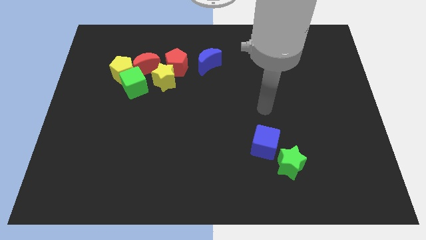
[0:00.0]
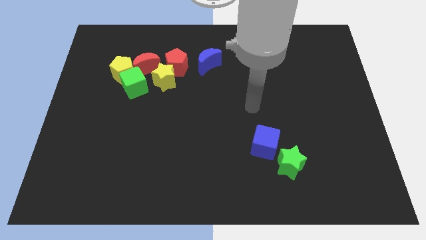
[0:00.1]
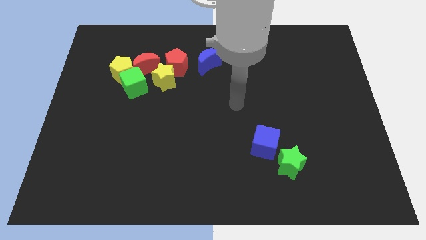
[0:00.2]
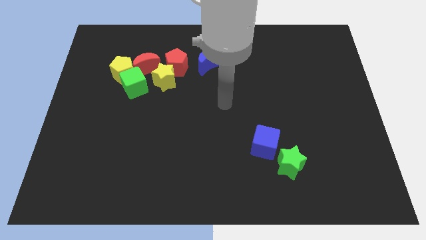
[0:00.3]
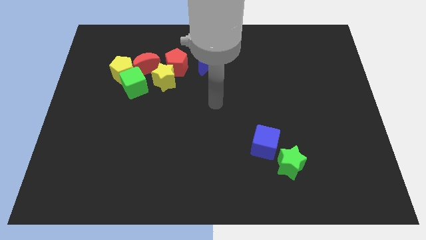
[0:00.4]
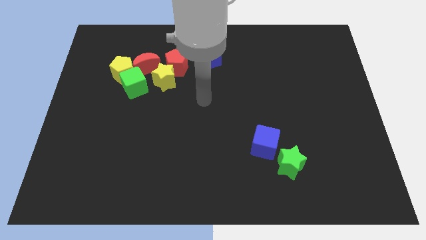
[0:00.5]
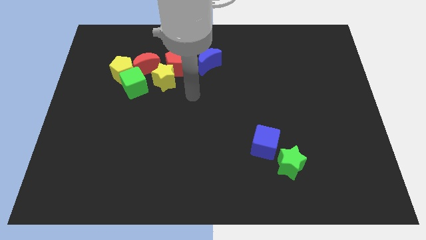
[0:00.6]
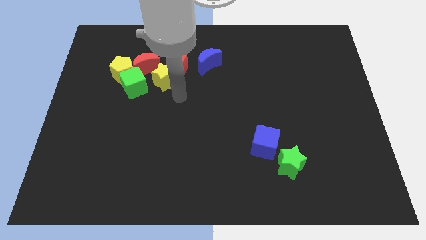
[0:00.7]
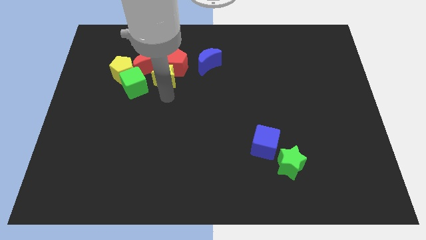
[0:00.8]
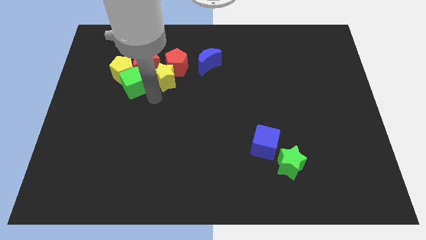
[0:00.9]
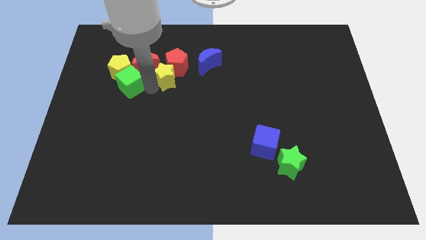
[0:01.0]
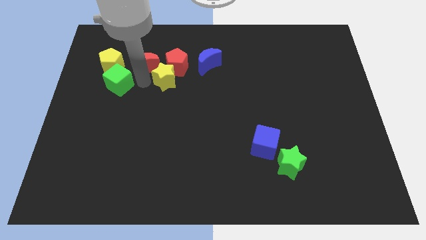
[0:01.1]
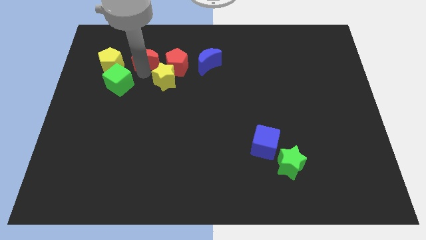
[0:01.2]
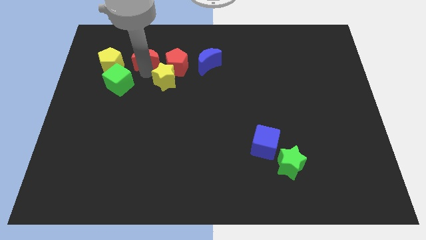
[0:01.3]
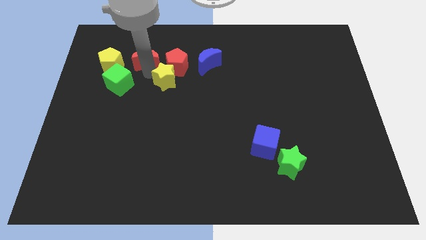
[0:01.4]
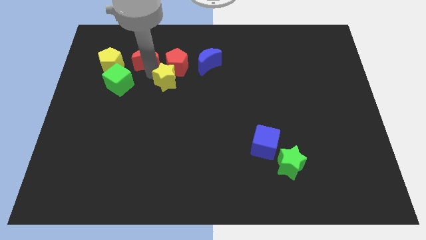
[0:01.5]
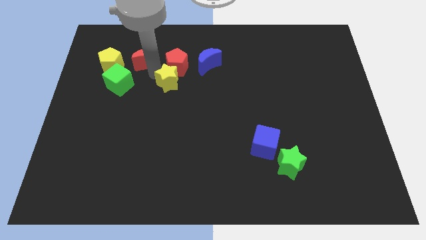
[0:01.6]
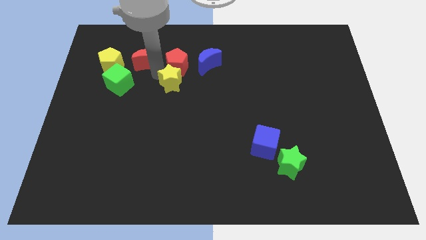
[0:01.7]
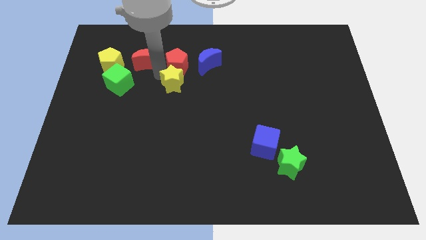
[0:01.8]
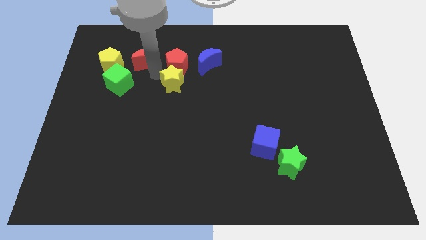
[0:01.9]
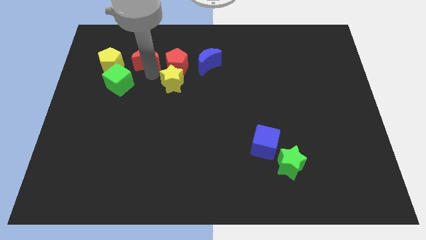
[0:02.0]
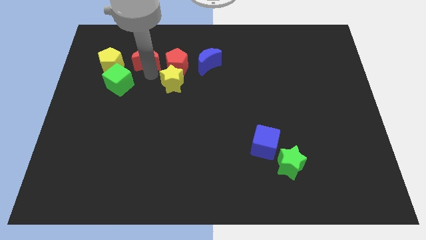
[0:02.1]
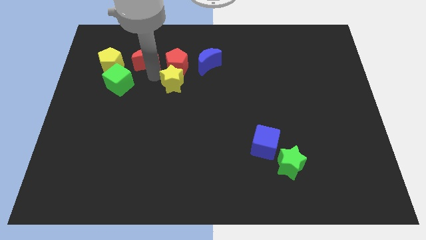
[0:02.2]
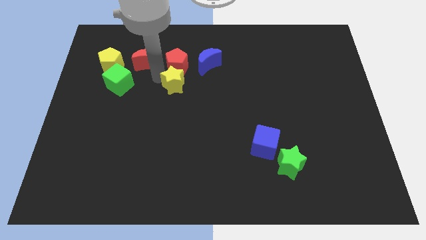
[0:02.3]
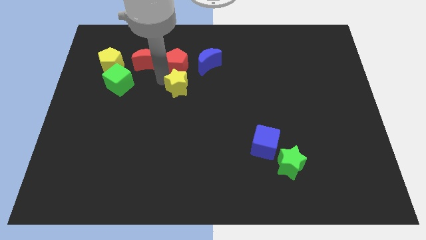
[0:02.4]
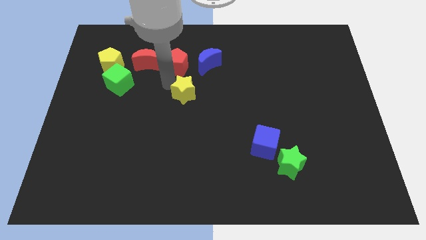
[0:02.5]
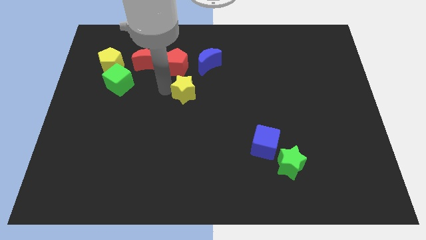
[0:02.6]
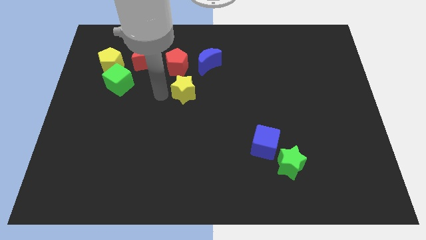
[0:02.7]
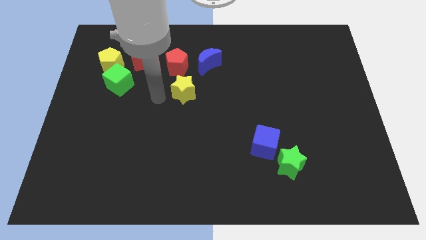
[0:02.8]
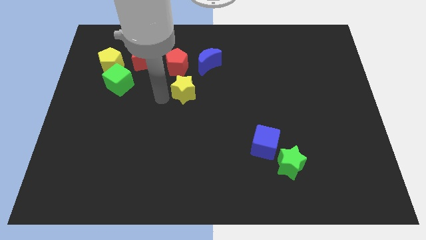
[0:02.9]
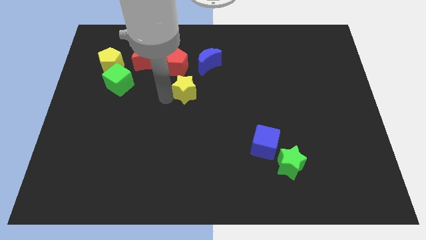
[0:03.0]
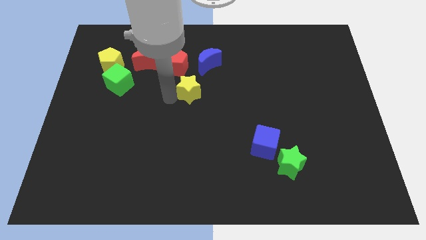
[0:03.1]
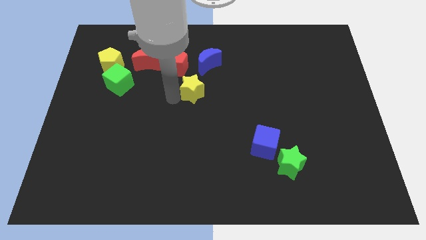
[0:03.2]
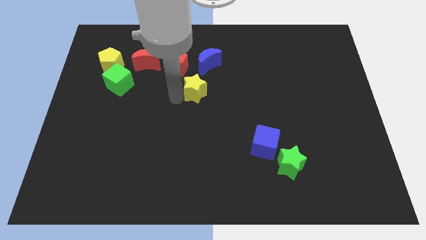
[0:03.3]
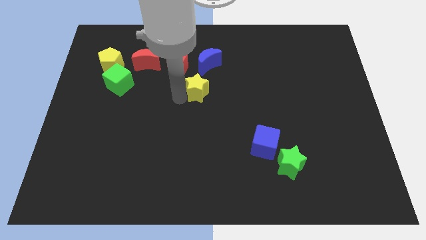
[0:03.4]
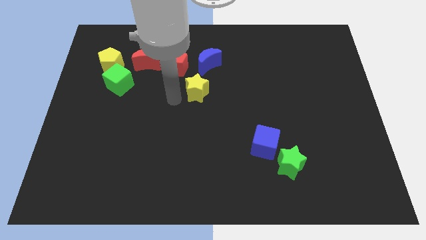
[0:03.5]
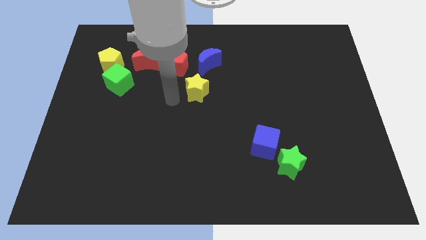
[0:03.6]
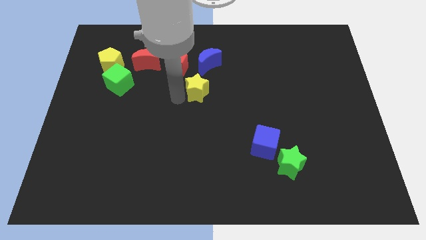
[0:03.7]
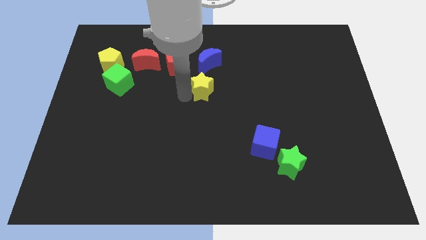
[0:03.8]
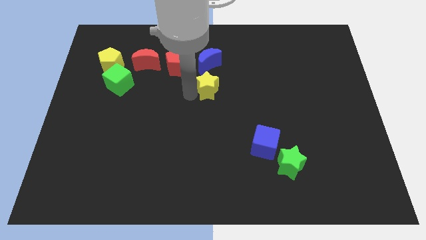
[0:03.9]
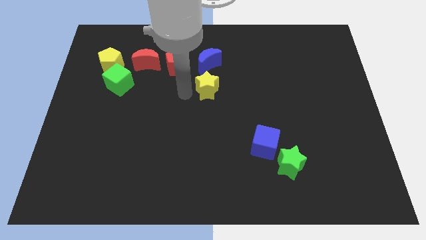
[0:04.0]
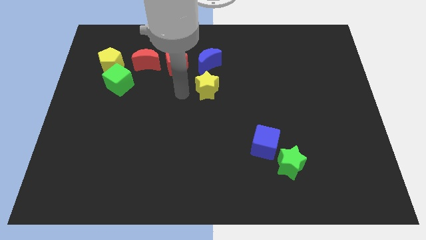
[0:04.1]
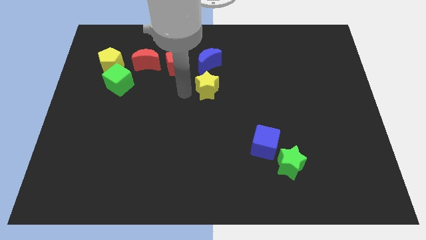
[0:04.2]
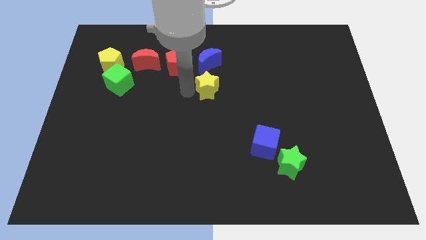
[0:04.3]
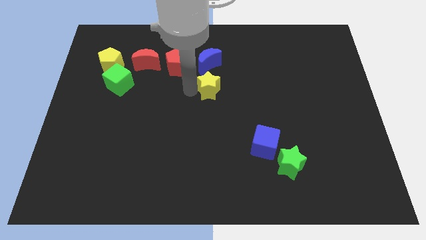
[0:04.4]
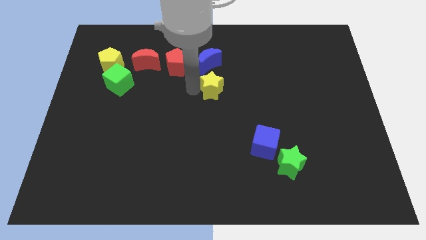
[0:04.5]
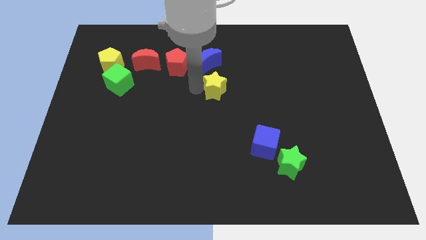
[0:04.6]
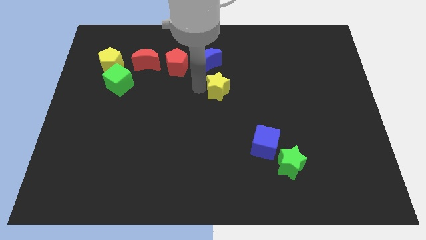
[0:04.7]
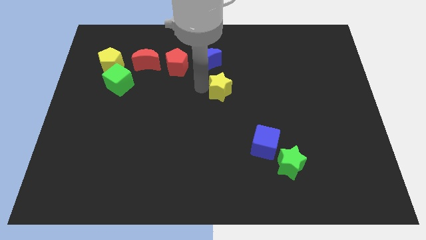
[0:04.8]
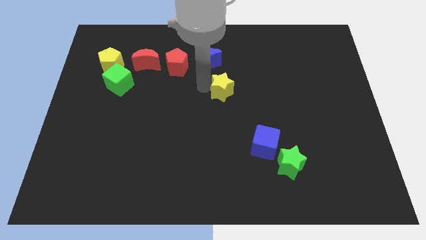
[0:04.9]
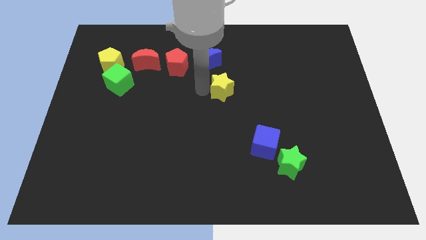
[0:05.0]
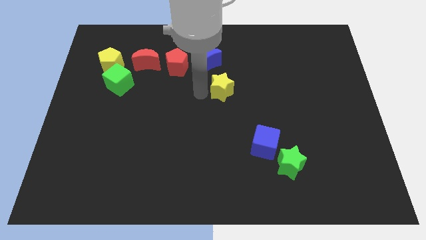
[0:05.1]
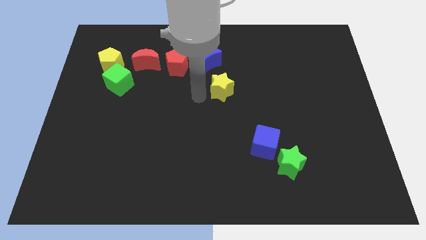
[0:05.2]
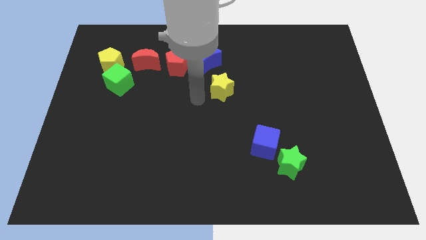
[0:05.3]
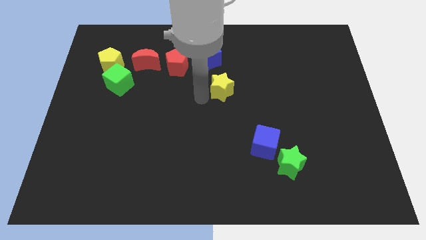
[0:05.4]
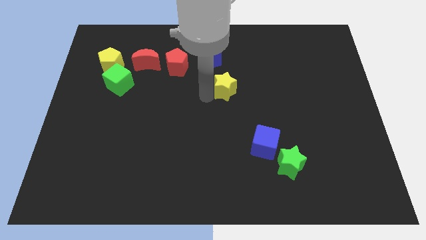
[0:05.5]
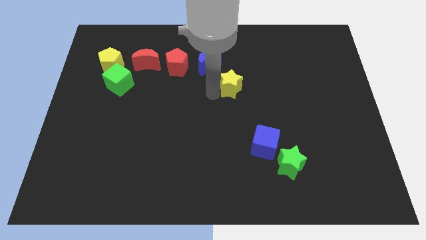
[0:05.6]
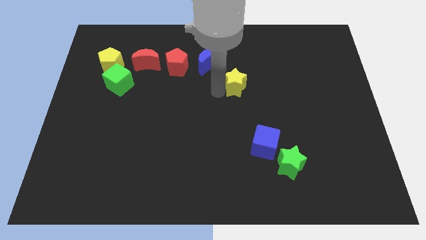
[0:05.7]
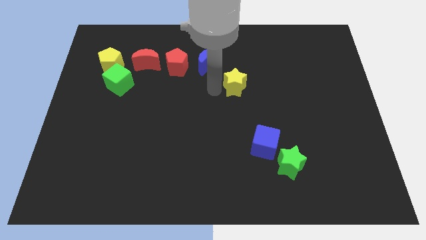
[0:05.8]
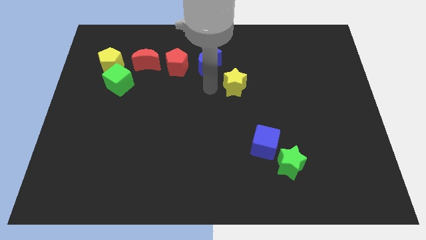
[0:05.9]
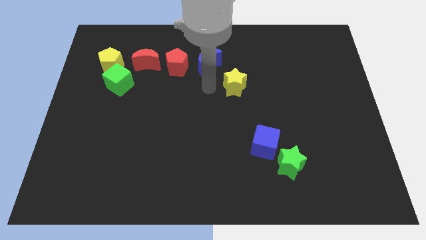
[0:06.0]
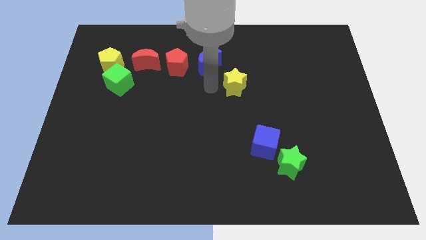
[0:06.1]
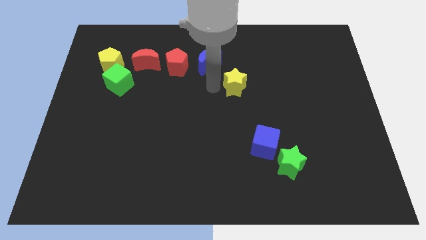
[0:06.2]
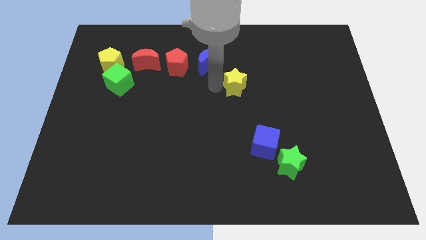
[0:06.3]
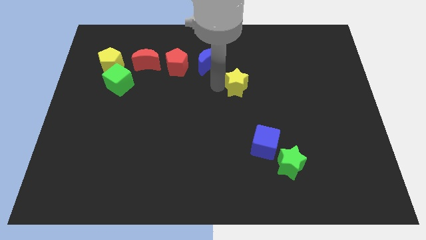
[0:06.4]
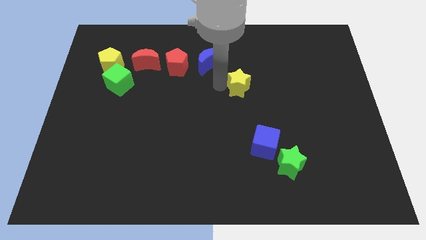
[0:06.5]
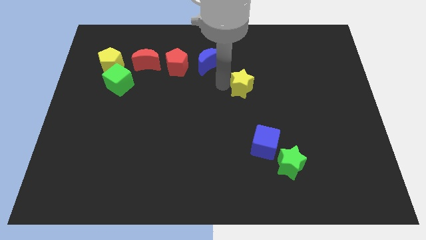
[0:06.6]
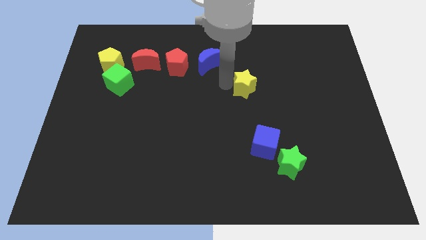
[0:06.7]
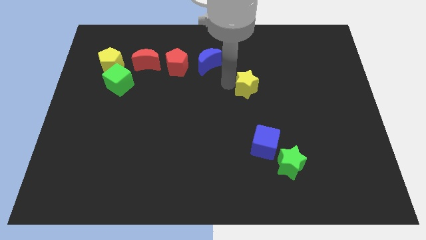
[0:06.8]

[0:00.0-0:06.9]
slide the yellow star to the right

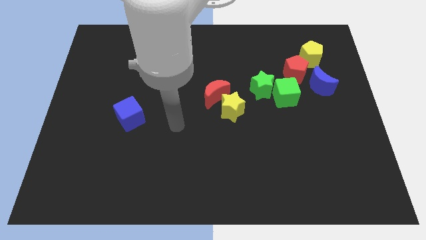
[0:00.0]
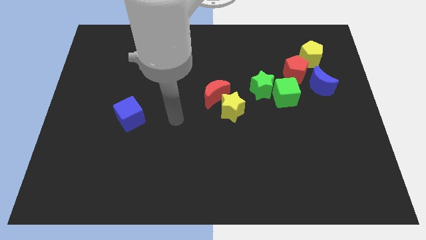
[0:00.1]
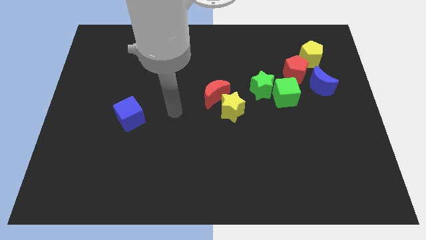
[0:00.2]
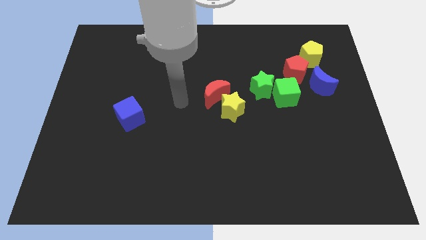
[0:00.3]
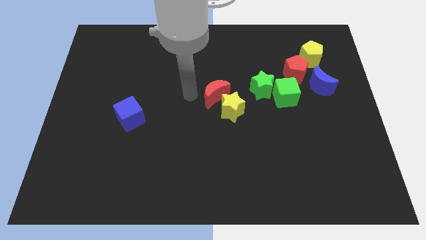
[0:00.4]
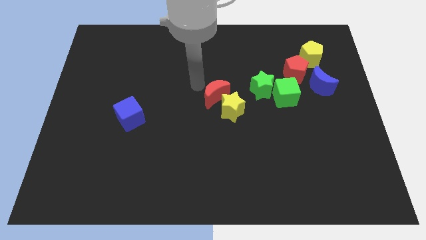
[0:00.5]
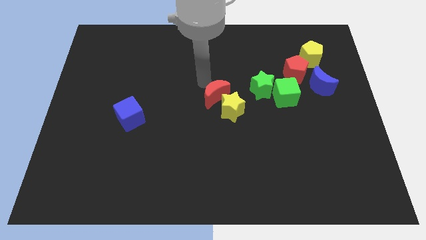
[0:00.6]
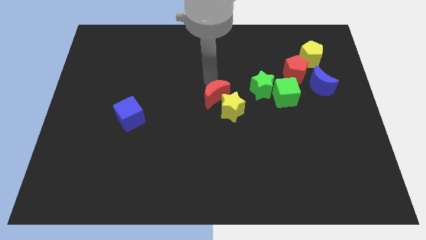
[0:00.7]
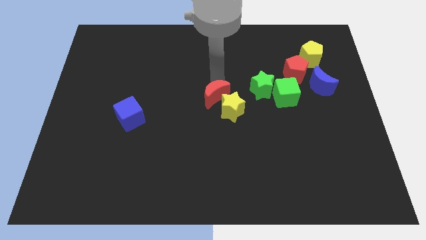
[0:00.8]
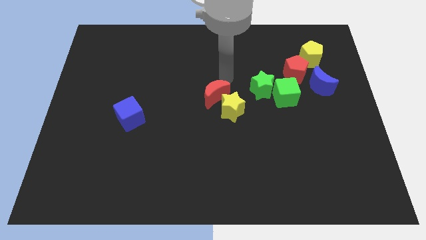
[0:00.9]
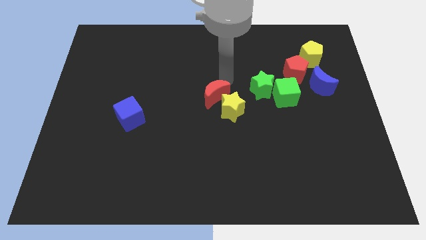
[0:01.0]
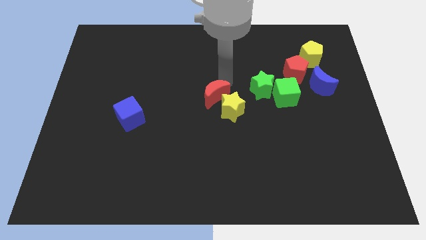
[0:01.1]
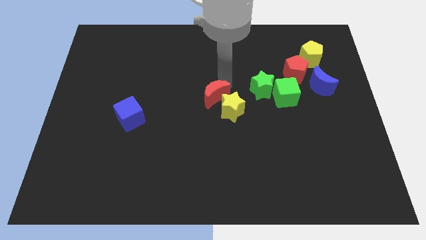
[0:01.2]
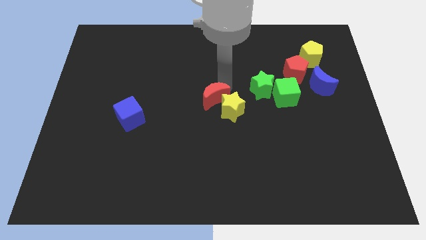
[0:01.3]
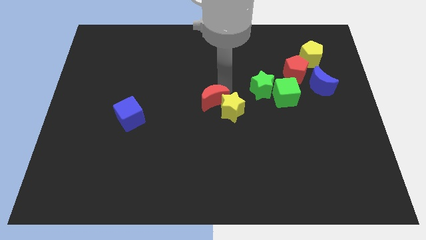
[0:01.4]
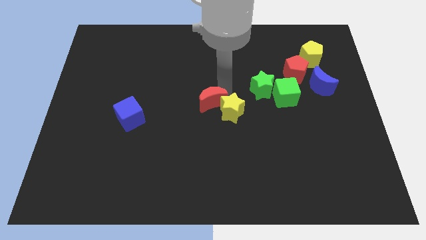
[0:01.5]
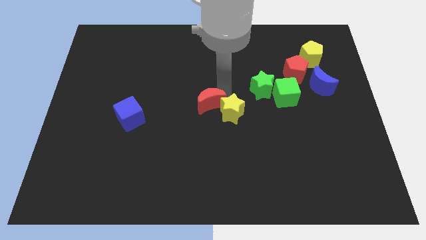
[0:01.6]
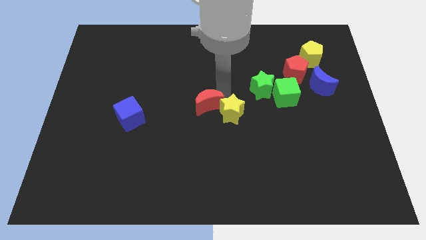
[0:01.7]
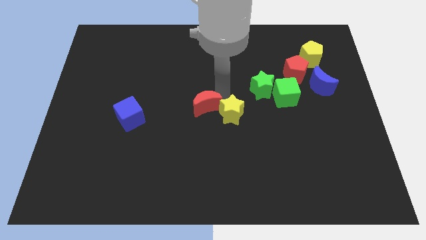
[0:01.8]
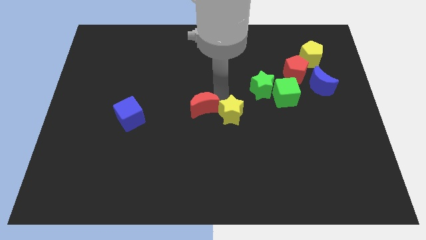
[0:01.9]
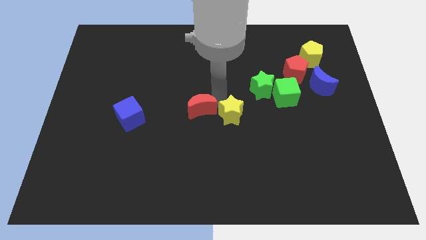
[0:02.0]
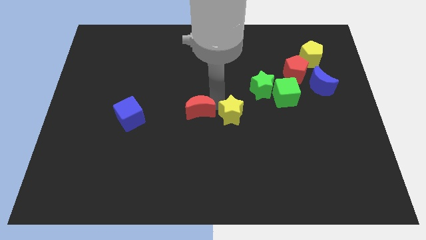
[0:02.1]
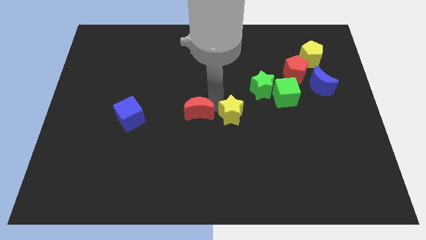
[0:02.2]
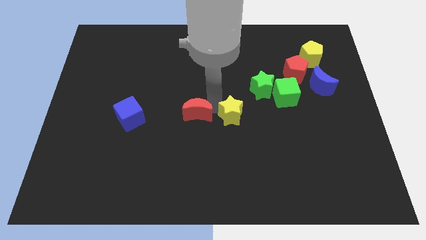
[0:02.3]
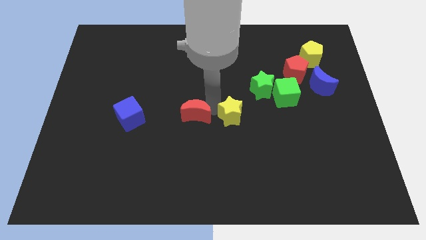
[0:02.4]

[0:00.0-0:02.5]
push the red moon somewhat diagonally downwards and to the left
